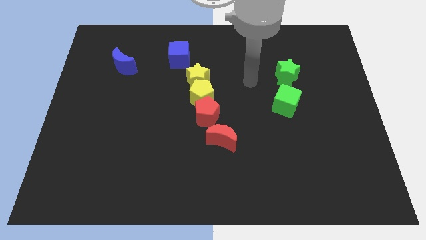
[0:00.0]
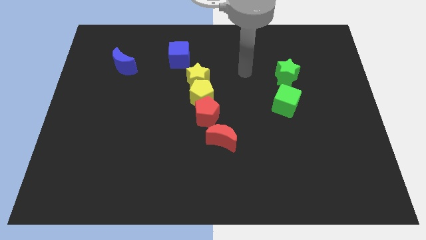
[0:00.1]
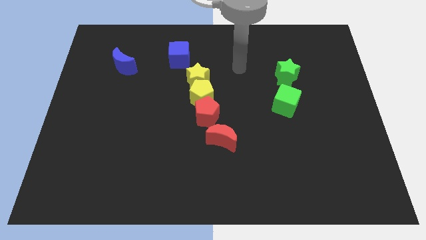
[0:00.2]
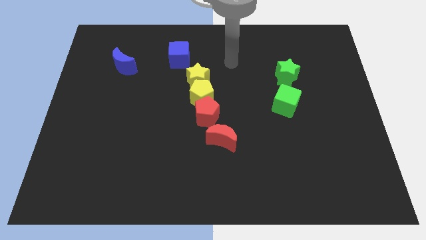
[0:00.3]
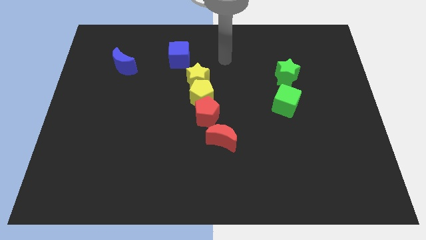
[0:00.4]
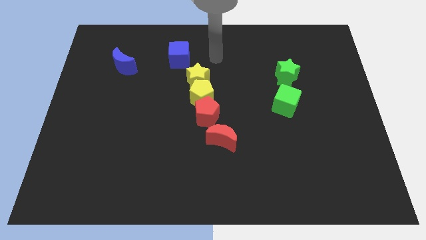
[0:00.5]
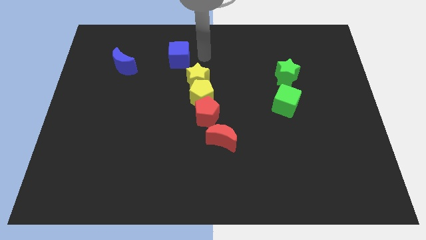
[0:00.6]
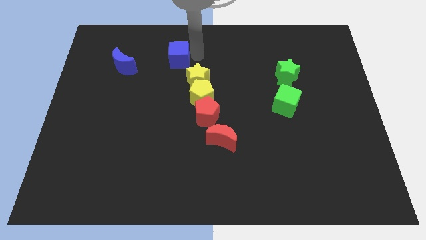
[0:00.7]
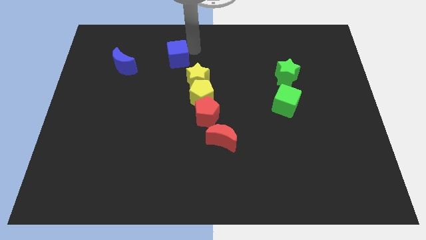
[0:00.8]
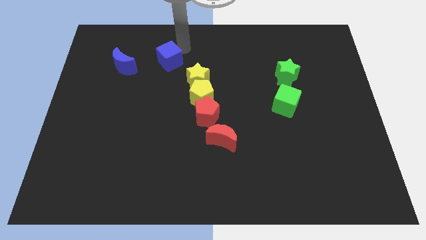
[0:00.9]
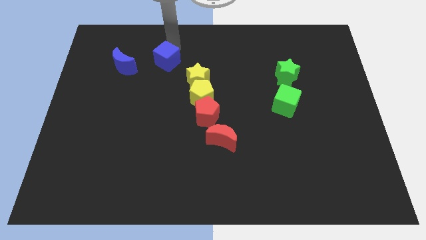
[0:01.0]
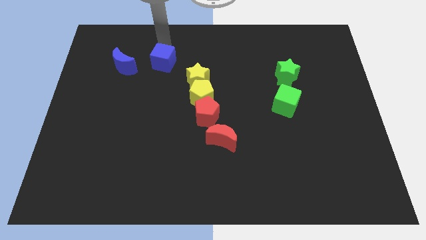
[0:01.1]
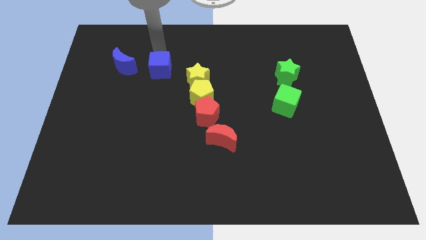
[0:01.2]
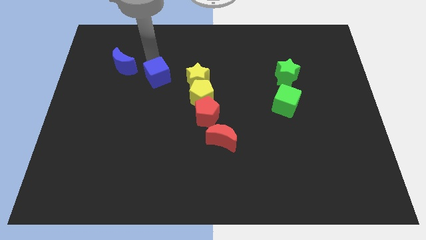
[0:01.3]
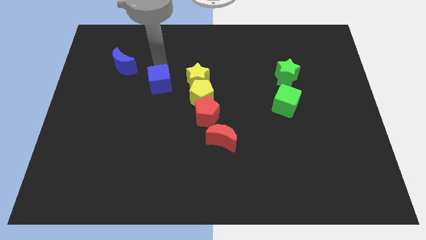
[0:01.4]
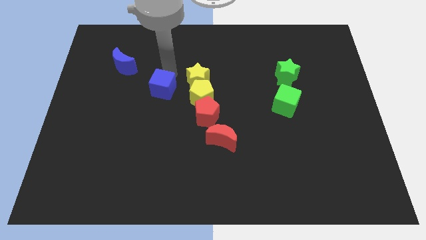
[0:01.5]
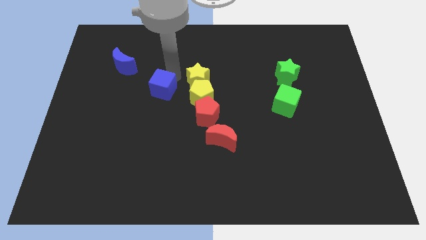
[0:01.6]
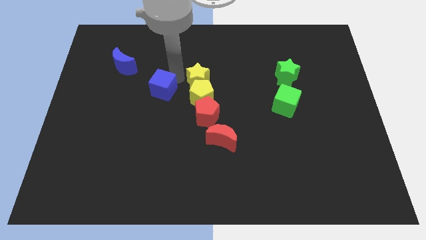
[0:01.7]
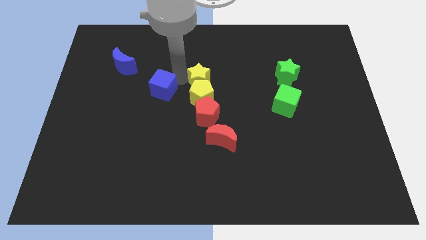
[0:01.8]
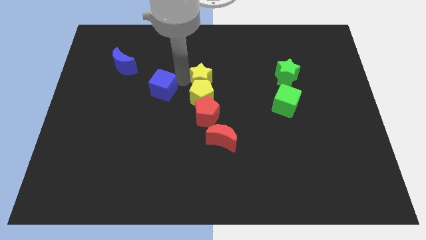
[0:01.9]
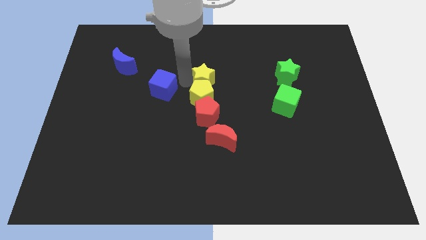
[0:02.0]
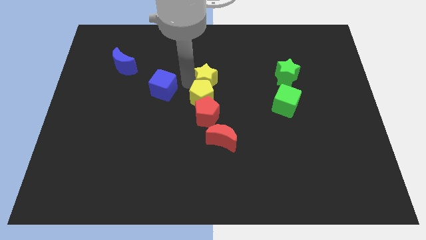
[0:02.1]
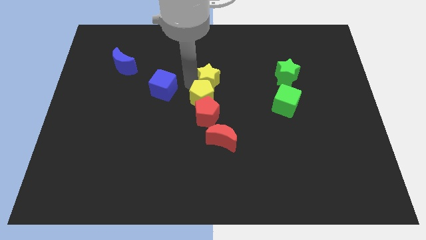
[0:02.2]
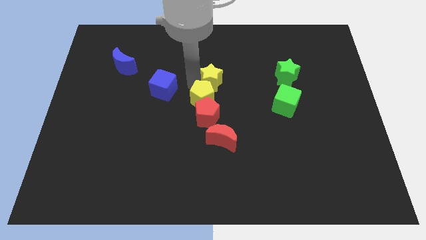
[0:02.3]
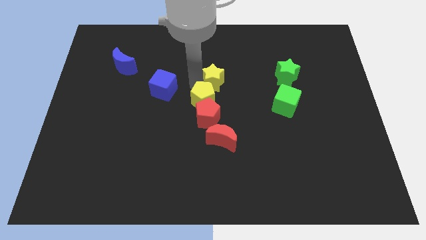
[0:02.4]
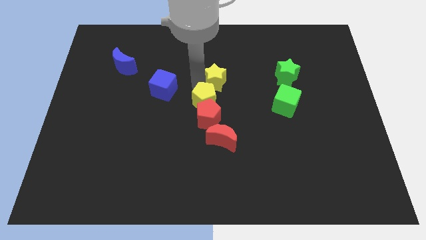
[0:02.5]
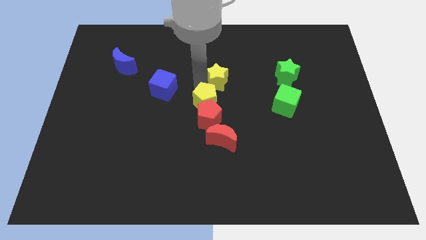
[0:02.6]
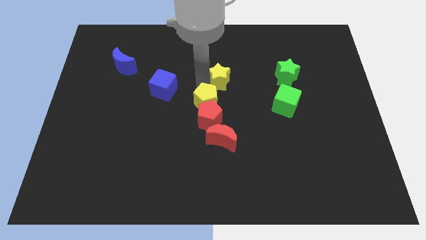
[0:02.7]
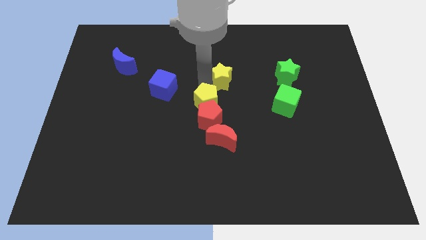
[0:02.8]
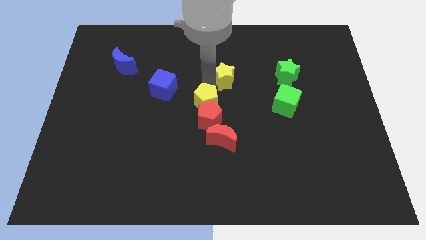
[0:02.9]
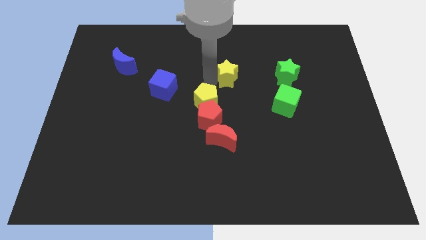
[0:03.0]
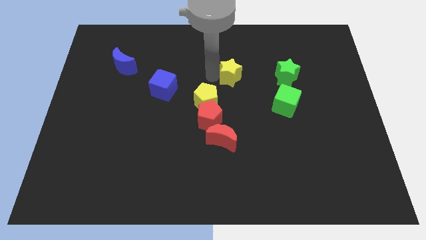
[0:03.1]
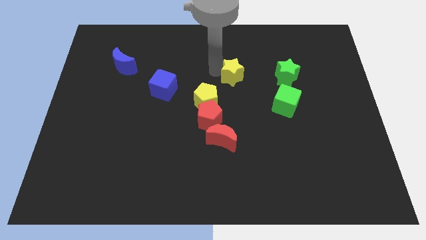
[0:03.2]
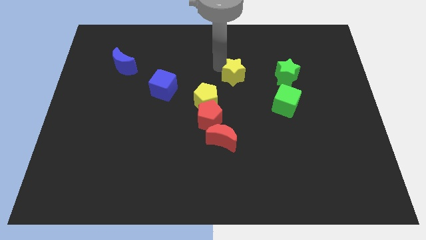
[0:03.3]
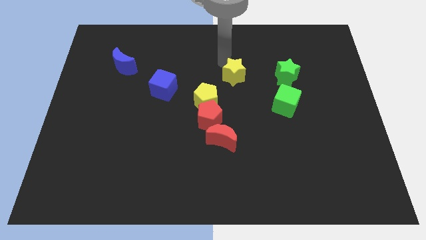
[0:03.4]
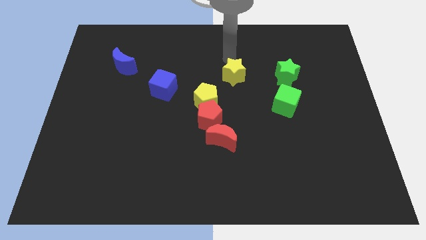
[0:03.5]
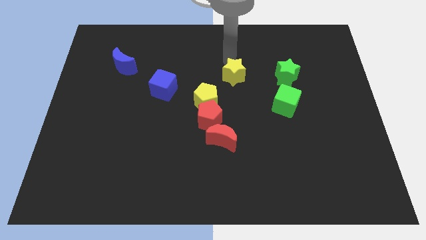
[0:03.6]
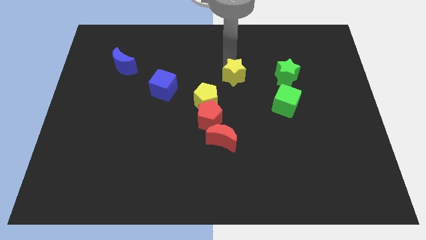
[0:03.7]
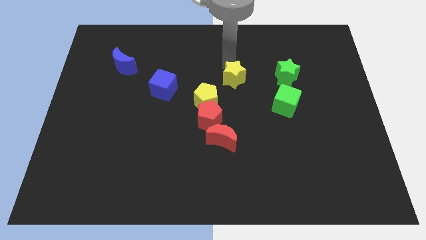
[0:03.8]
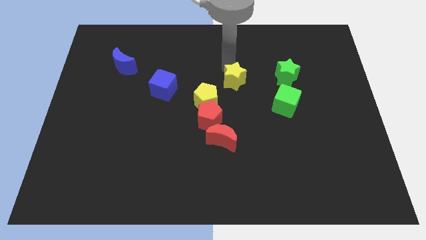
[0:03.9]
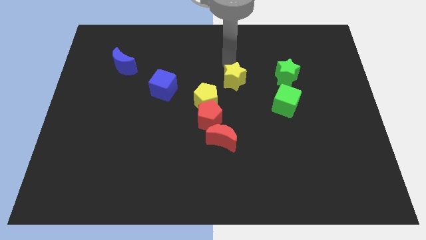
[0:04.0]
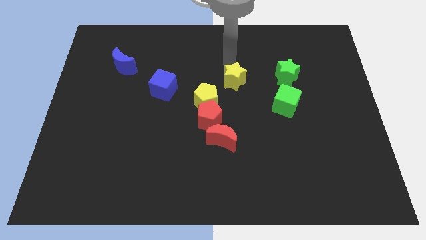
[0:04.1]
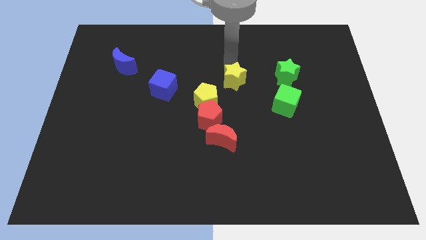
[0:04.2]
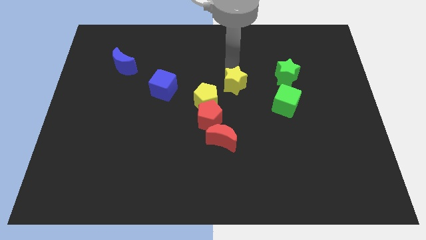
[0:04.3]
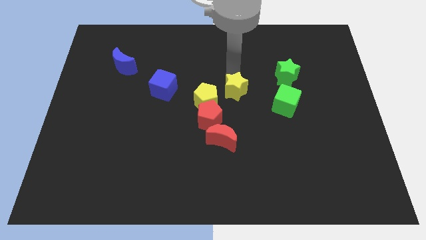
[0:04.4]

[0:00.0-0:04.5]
move the yellow star downwards and to the right a little bit

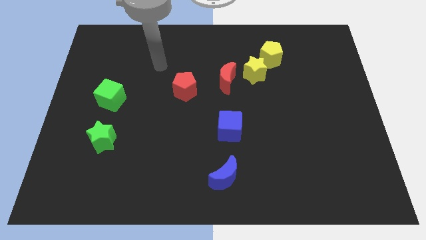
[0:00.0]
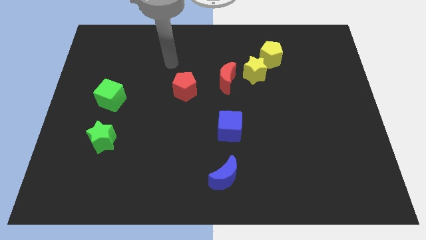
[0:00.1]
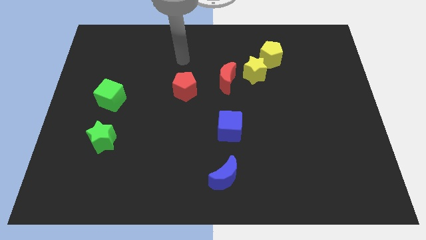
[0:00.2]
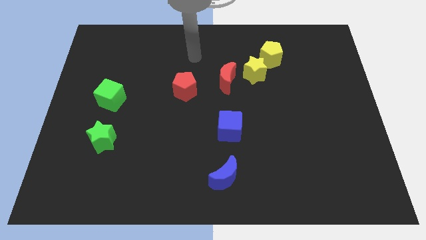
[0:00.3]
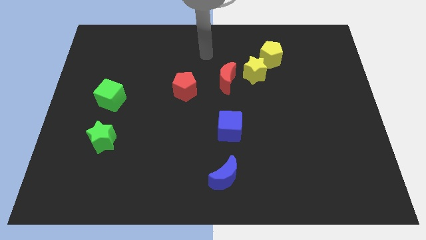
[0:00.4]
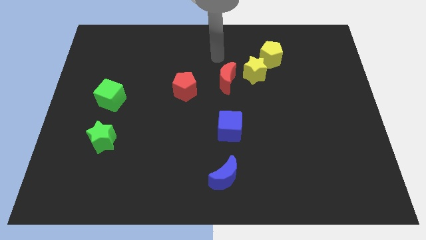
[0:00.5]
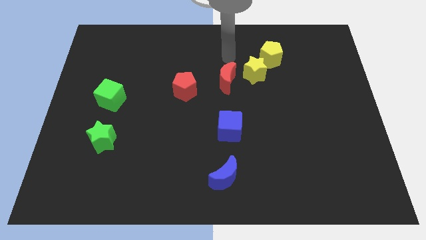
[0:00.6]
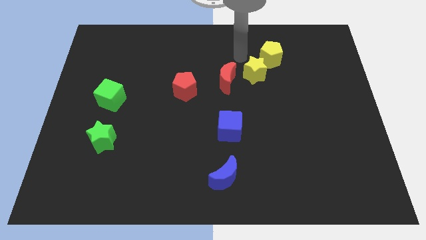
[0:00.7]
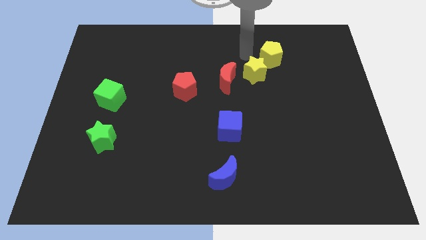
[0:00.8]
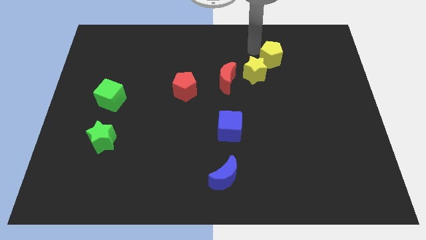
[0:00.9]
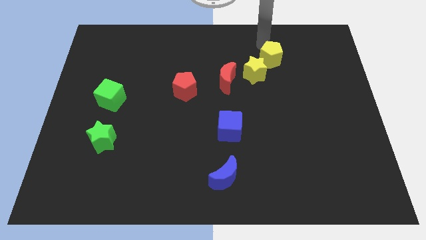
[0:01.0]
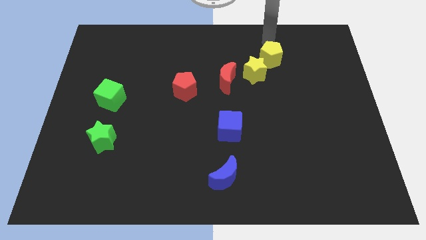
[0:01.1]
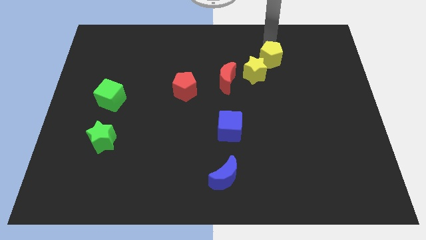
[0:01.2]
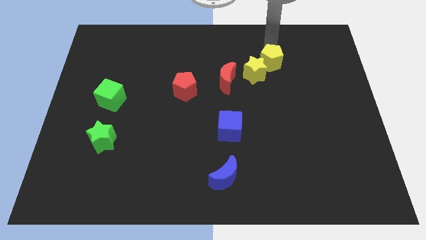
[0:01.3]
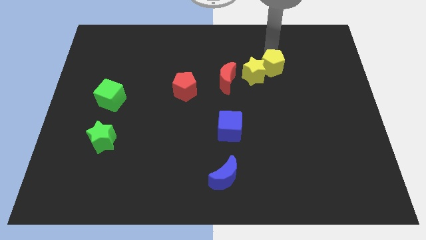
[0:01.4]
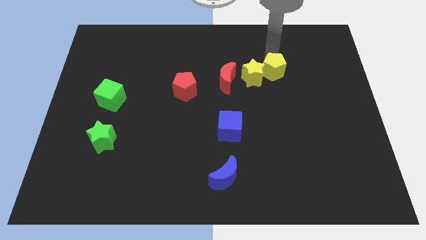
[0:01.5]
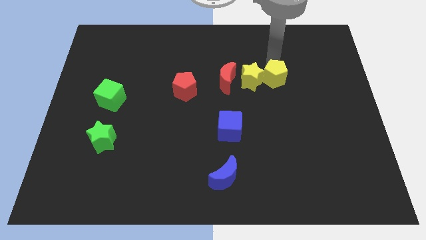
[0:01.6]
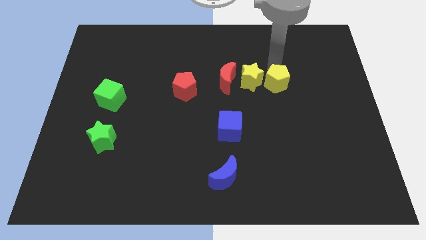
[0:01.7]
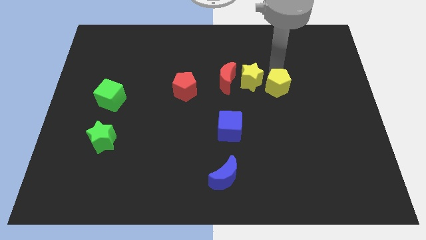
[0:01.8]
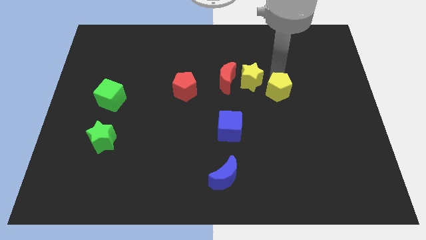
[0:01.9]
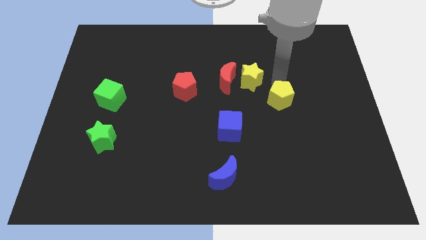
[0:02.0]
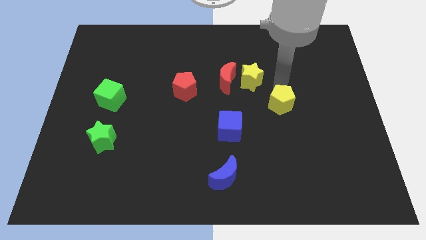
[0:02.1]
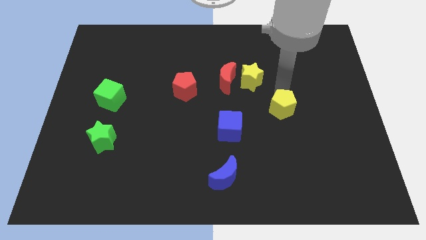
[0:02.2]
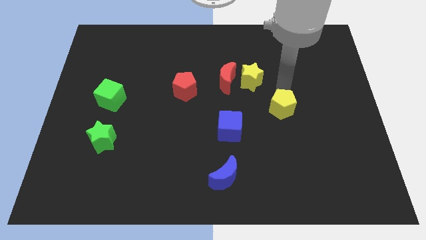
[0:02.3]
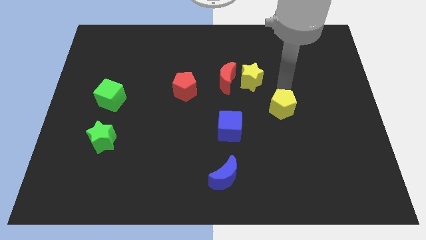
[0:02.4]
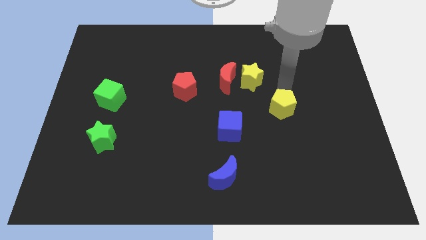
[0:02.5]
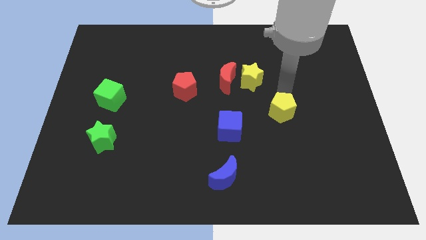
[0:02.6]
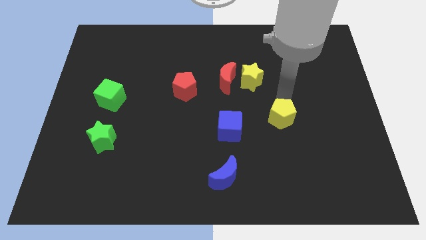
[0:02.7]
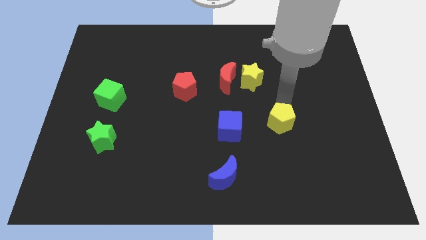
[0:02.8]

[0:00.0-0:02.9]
push the yellow pentagon downwards

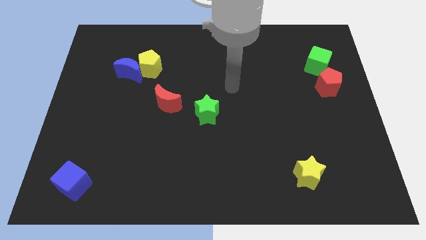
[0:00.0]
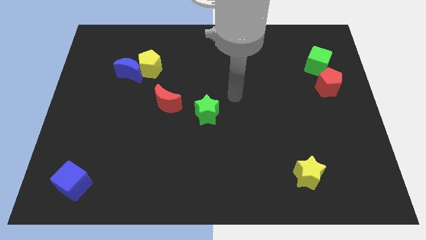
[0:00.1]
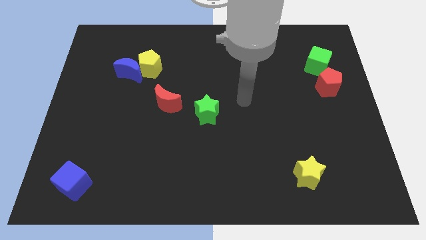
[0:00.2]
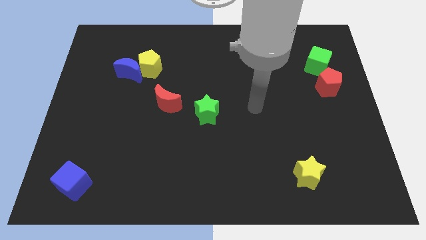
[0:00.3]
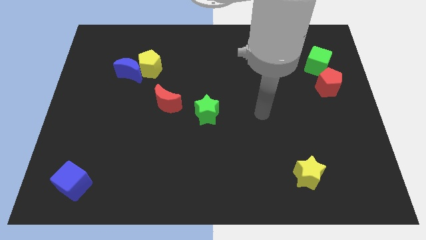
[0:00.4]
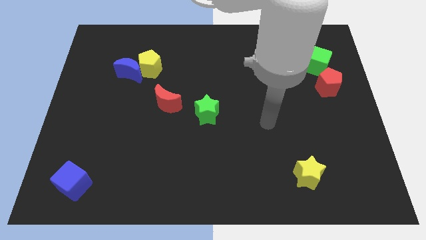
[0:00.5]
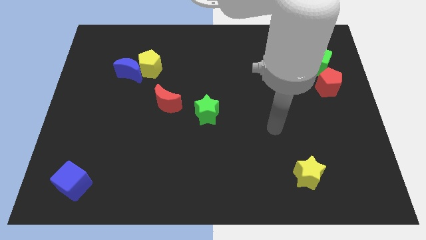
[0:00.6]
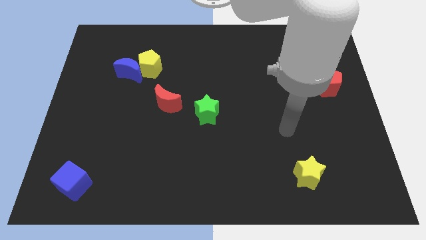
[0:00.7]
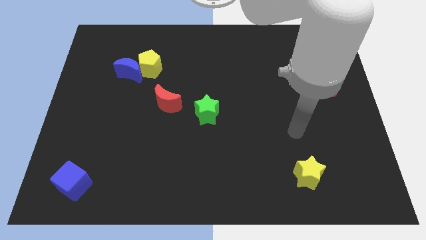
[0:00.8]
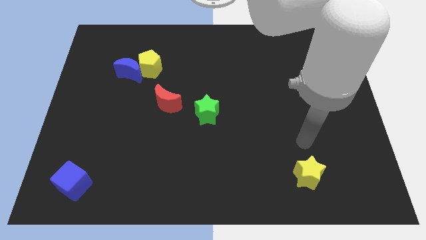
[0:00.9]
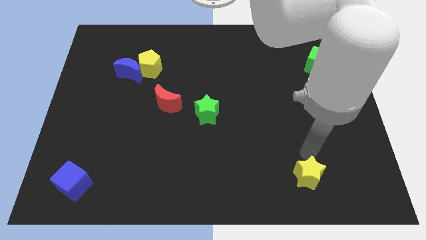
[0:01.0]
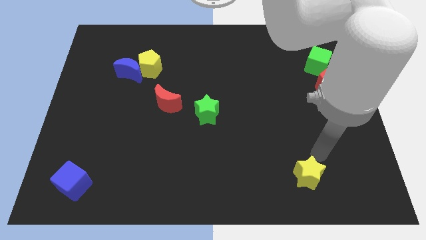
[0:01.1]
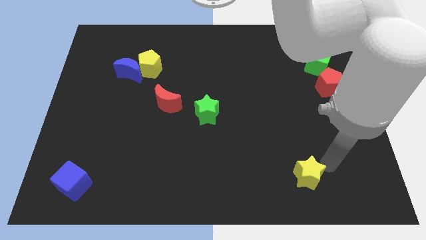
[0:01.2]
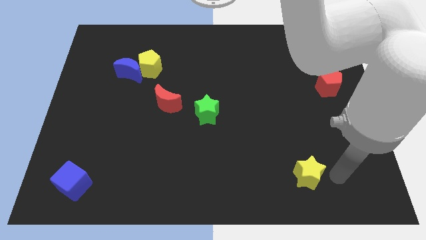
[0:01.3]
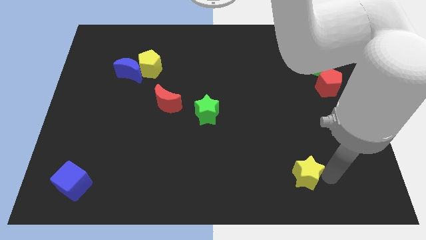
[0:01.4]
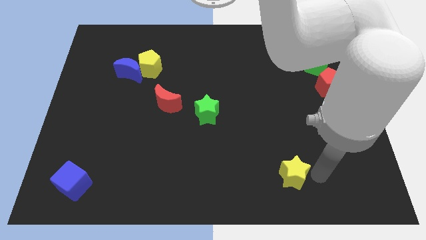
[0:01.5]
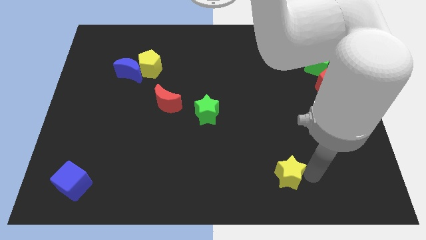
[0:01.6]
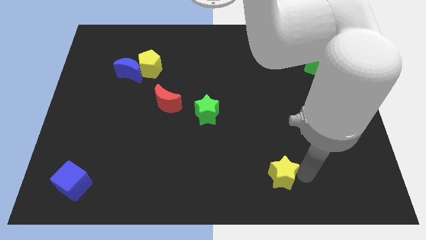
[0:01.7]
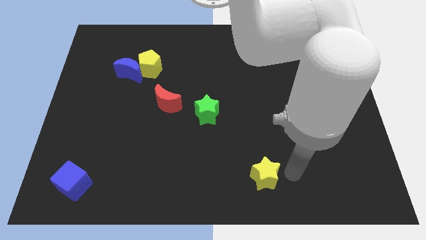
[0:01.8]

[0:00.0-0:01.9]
slide the yellow star a little to the left
